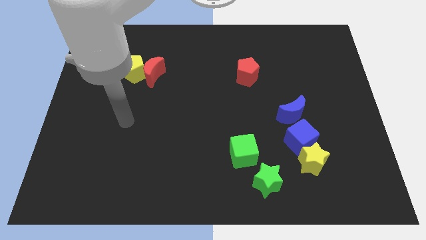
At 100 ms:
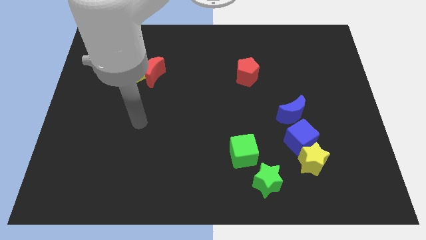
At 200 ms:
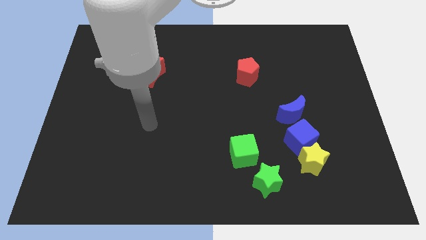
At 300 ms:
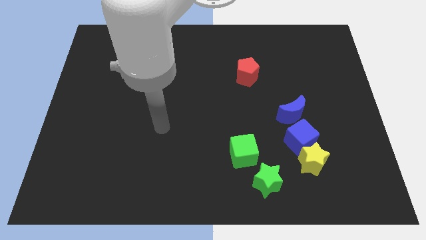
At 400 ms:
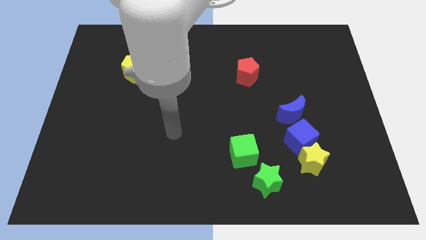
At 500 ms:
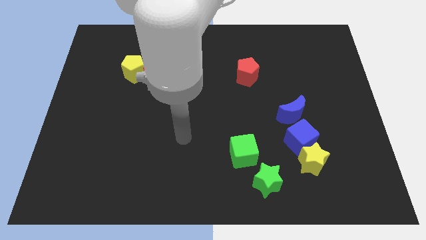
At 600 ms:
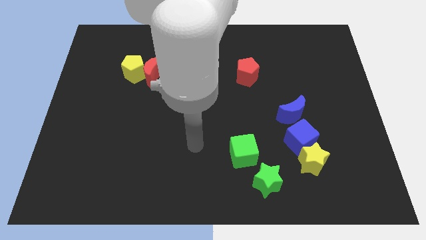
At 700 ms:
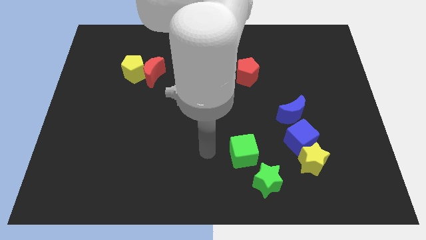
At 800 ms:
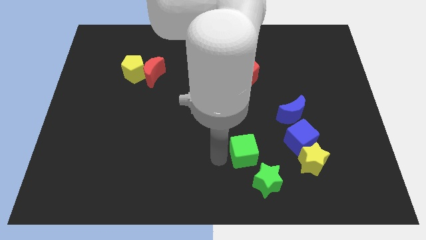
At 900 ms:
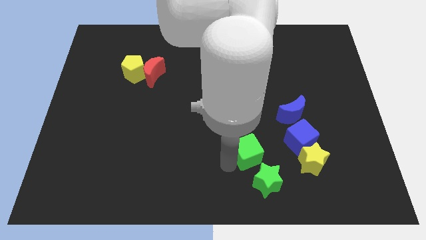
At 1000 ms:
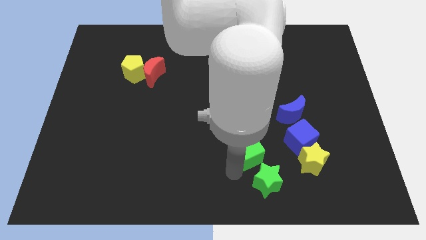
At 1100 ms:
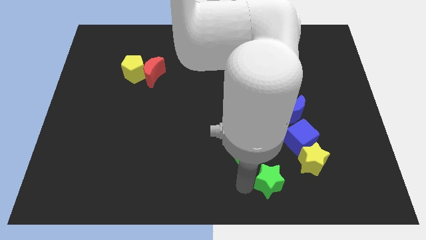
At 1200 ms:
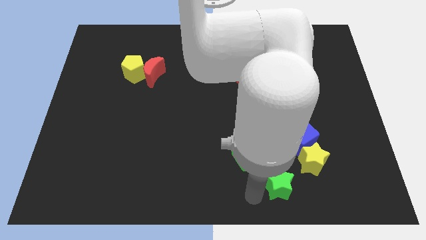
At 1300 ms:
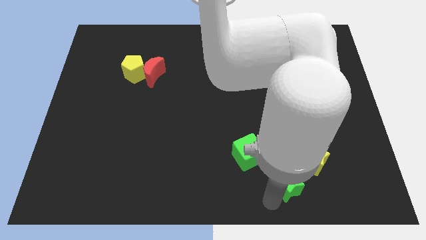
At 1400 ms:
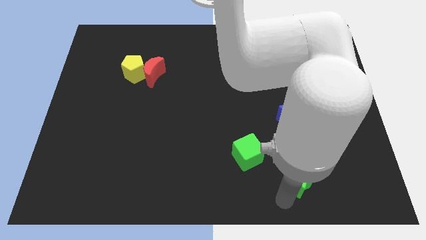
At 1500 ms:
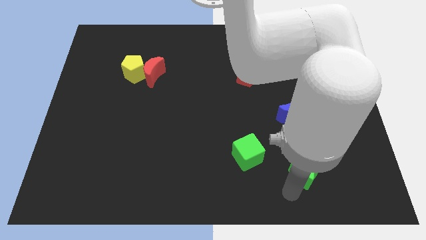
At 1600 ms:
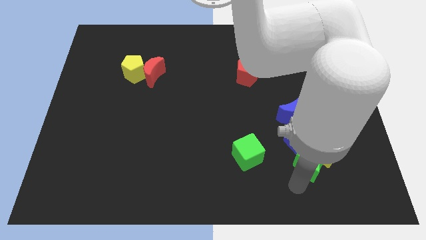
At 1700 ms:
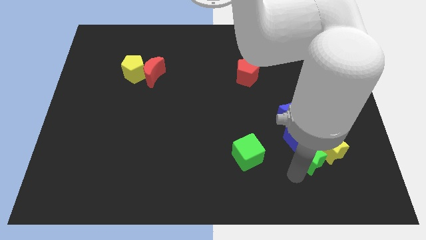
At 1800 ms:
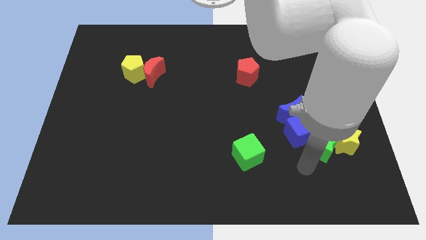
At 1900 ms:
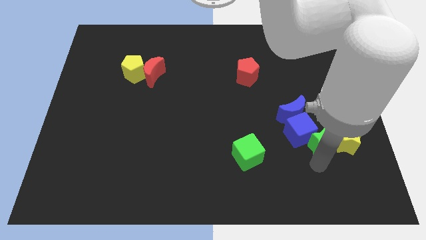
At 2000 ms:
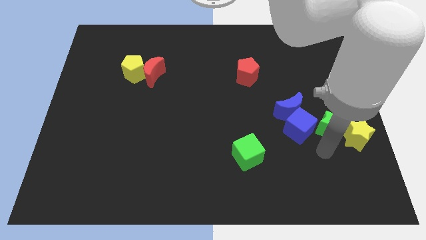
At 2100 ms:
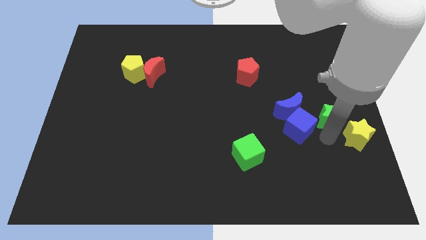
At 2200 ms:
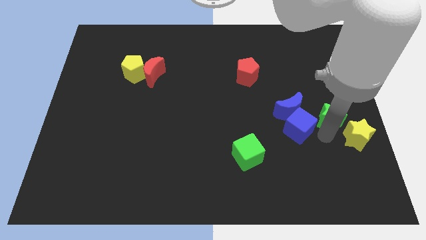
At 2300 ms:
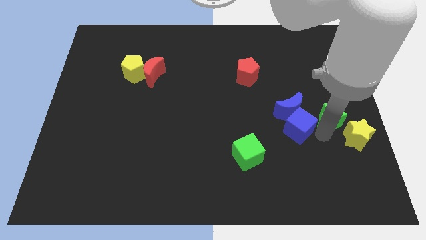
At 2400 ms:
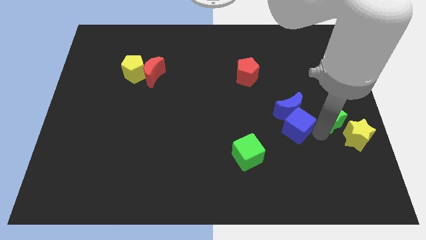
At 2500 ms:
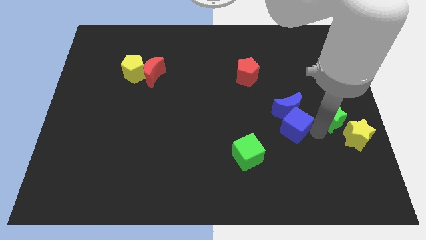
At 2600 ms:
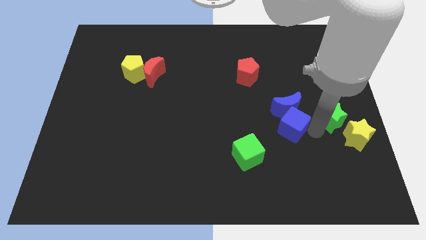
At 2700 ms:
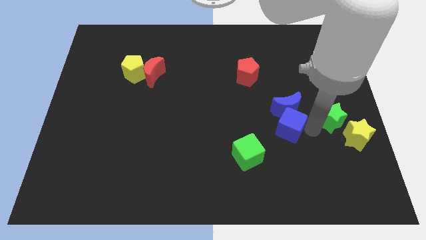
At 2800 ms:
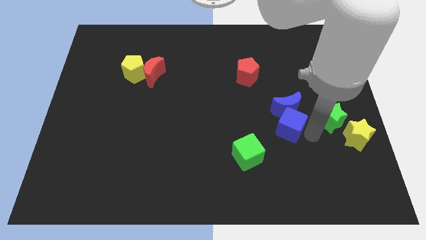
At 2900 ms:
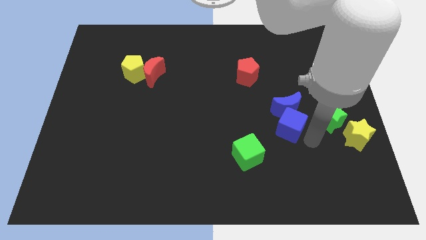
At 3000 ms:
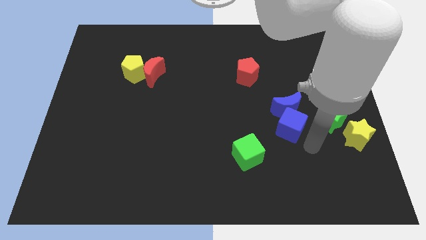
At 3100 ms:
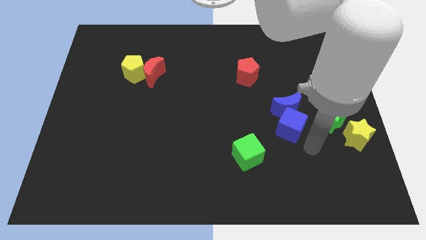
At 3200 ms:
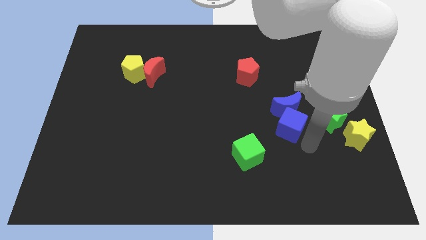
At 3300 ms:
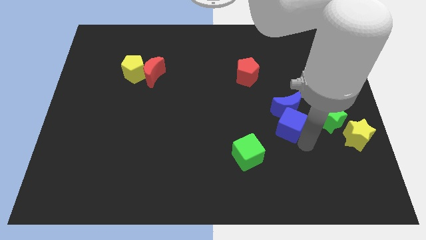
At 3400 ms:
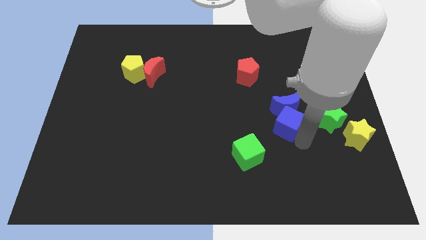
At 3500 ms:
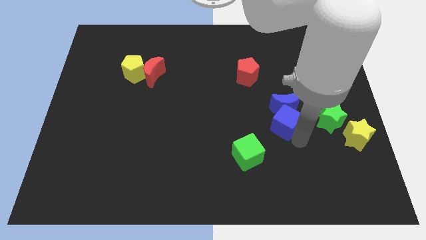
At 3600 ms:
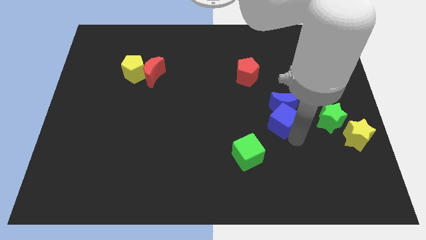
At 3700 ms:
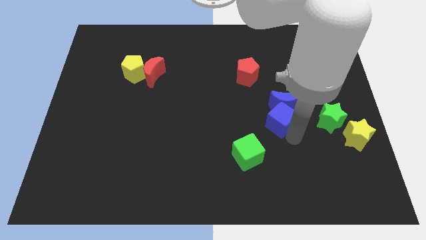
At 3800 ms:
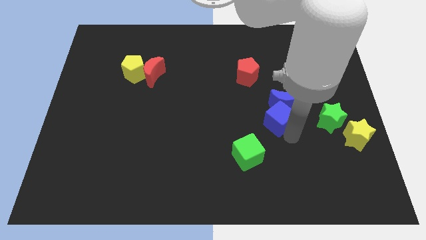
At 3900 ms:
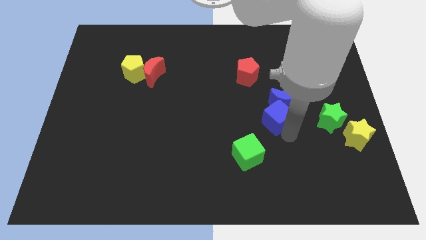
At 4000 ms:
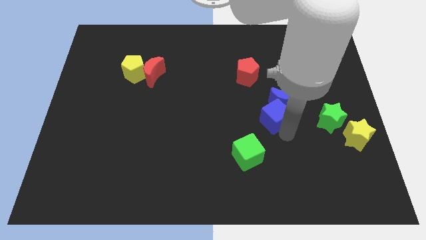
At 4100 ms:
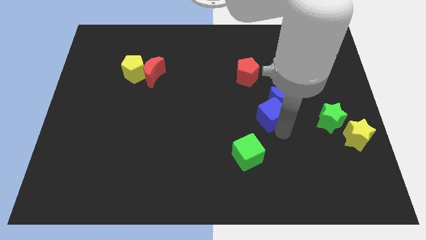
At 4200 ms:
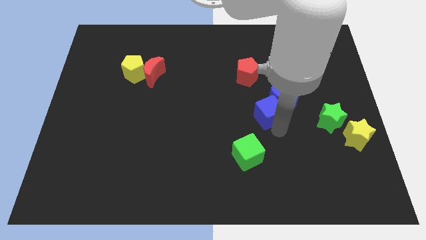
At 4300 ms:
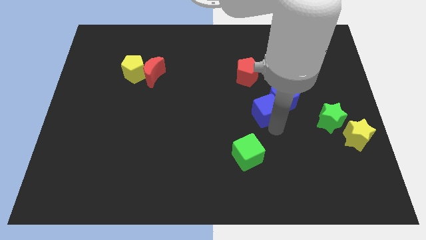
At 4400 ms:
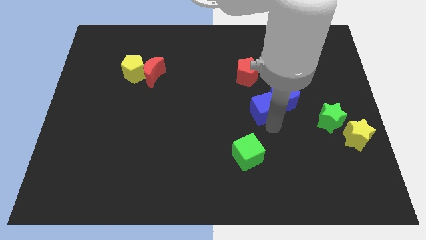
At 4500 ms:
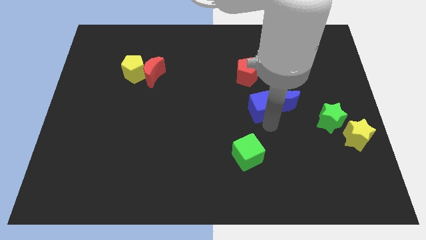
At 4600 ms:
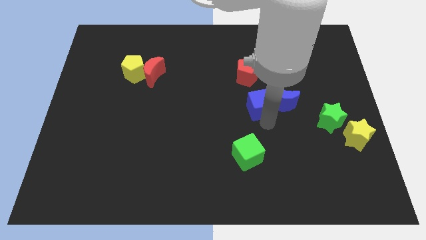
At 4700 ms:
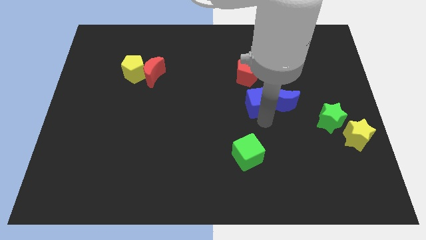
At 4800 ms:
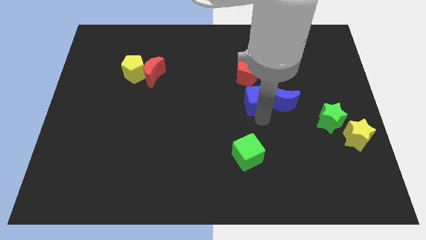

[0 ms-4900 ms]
put the blue cube to the bottom right of the red pentagon
